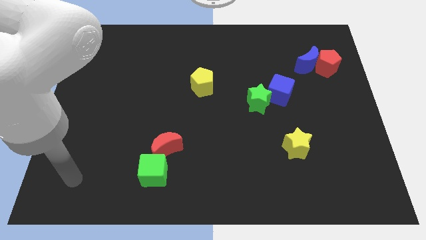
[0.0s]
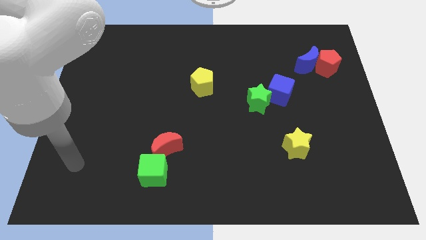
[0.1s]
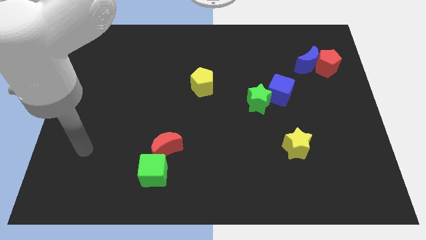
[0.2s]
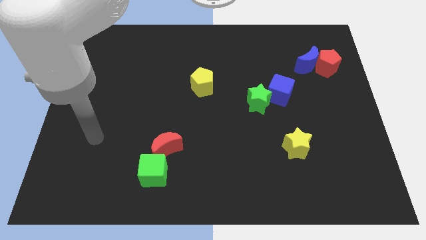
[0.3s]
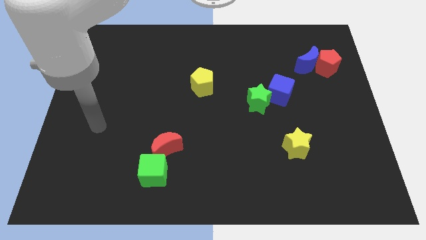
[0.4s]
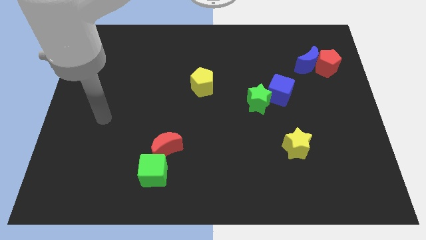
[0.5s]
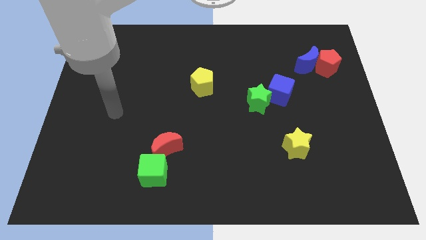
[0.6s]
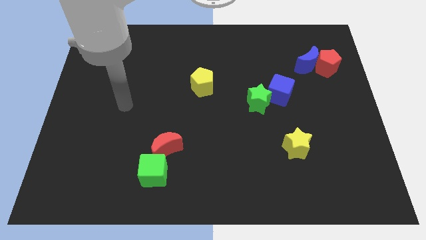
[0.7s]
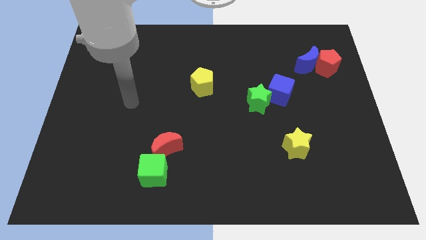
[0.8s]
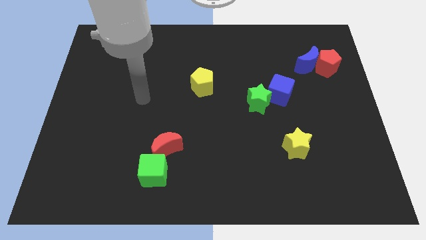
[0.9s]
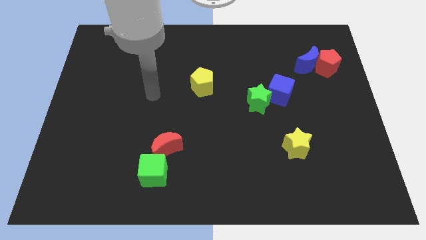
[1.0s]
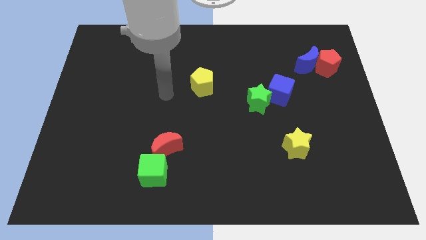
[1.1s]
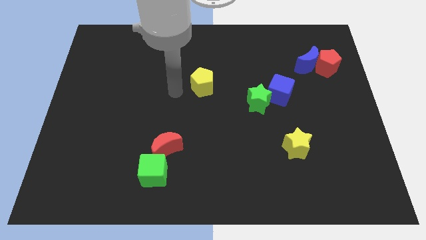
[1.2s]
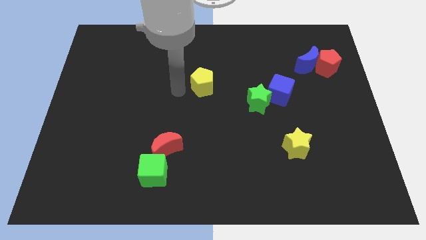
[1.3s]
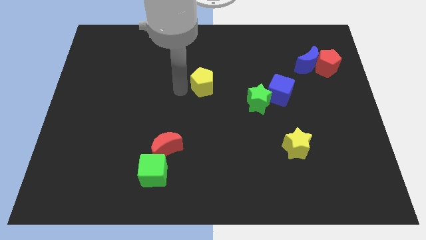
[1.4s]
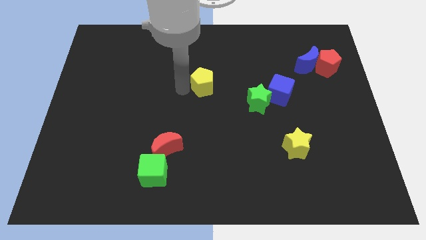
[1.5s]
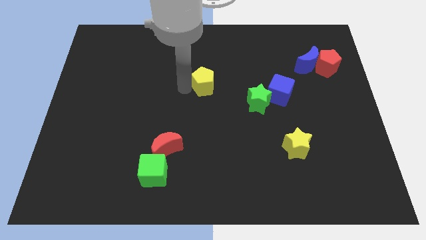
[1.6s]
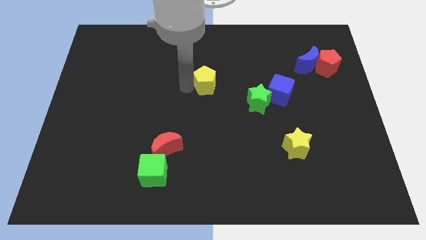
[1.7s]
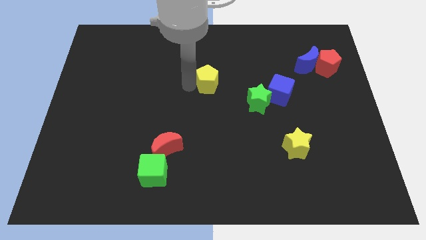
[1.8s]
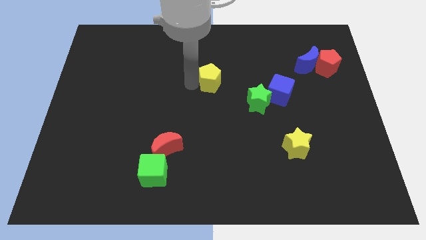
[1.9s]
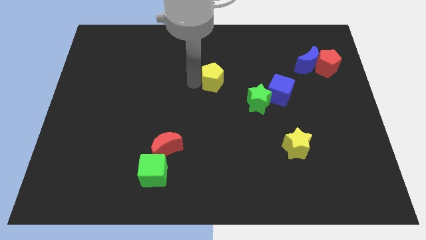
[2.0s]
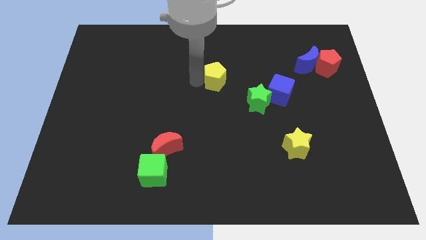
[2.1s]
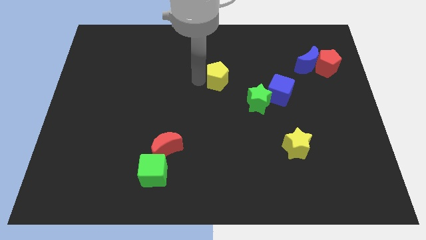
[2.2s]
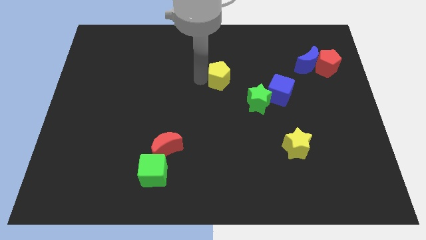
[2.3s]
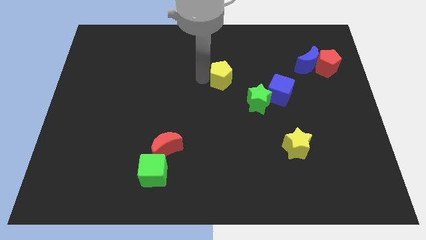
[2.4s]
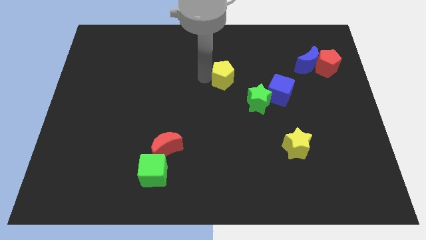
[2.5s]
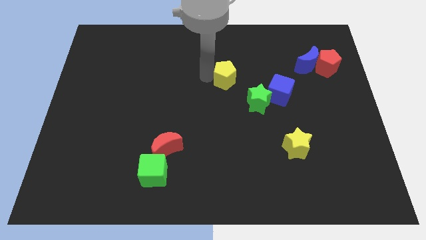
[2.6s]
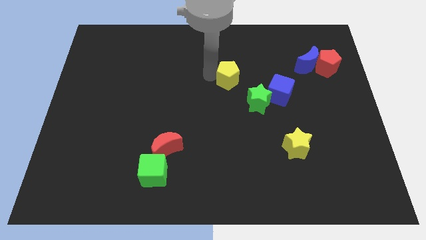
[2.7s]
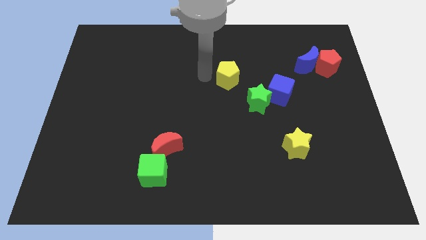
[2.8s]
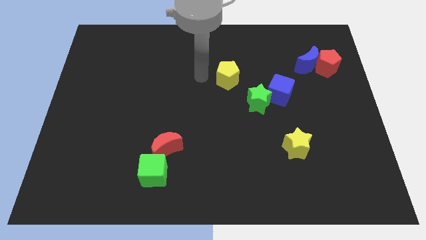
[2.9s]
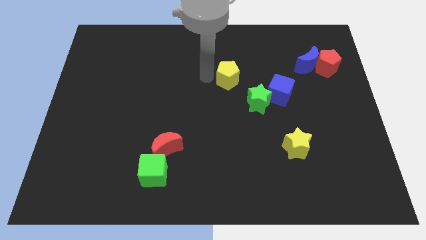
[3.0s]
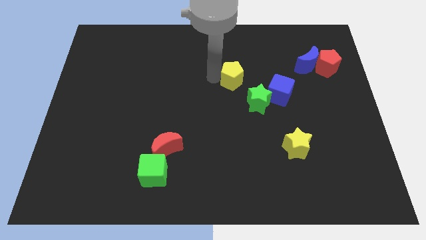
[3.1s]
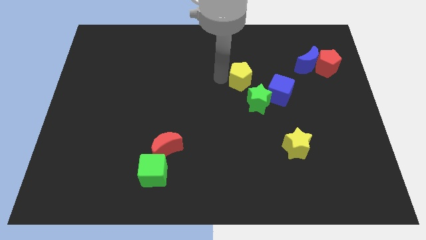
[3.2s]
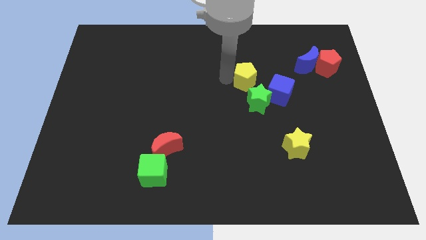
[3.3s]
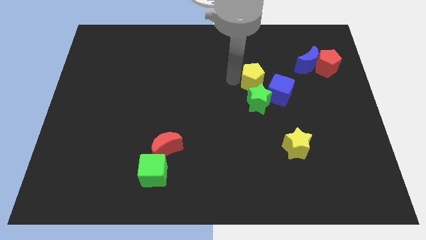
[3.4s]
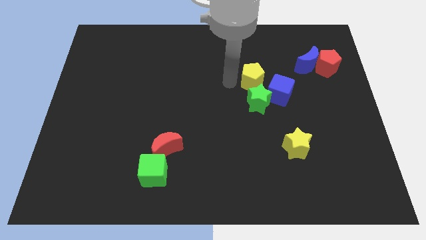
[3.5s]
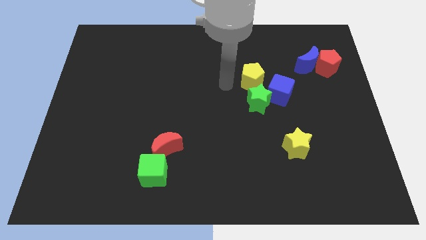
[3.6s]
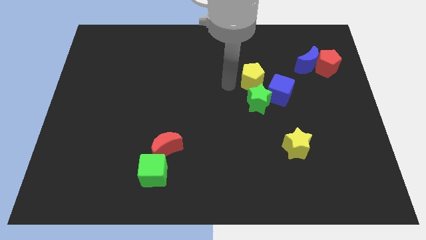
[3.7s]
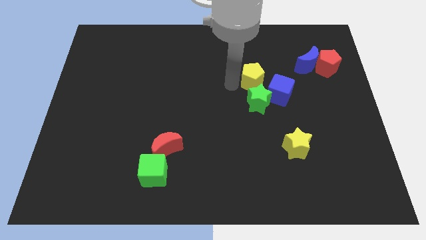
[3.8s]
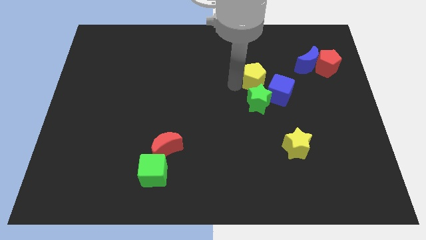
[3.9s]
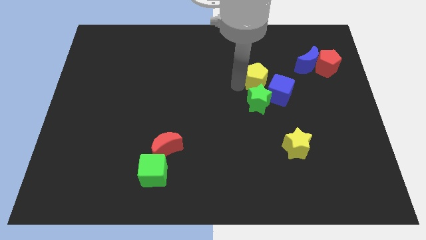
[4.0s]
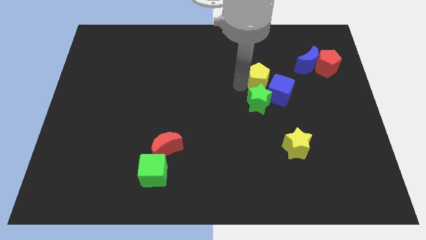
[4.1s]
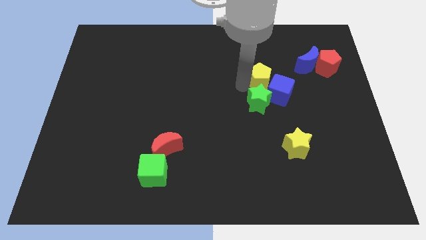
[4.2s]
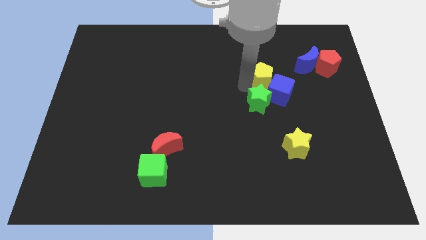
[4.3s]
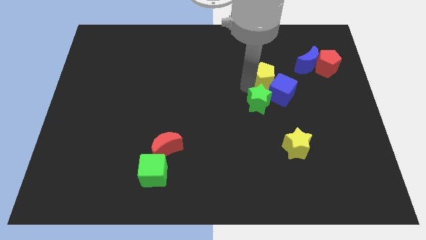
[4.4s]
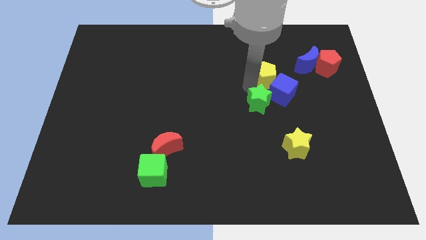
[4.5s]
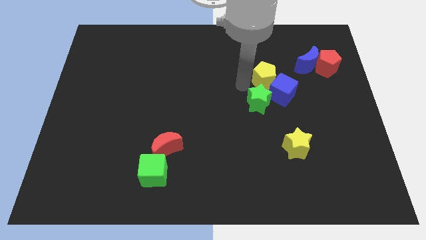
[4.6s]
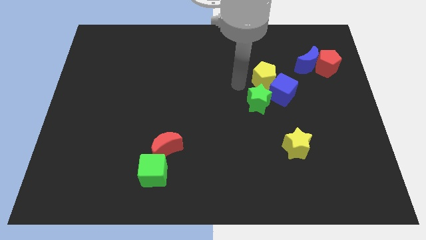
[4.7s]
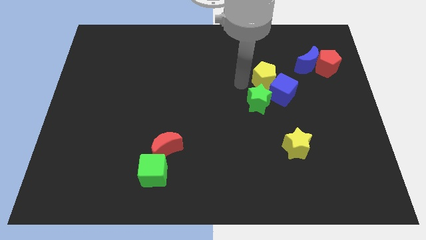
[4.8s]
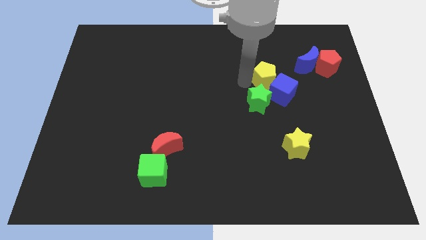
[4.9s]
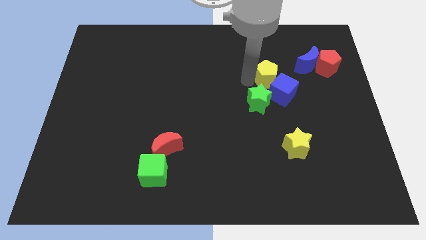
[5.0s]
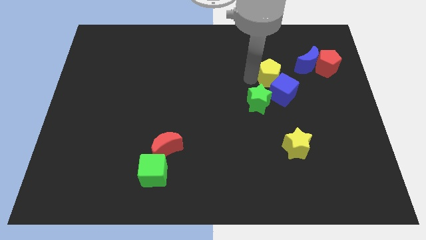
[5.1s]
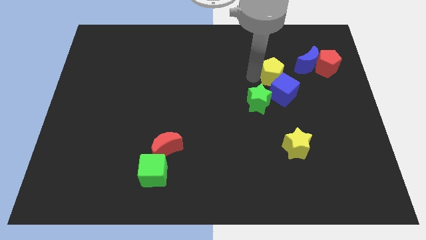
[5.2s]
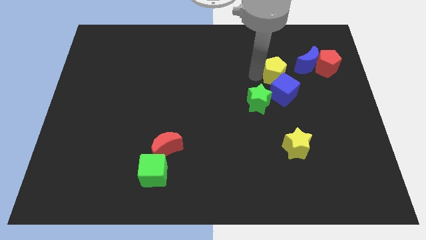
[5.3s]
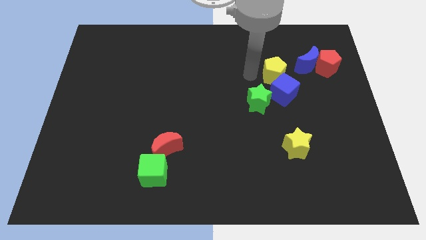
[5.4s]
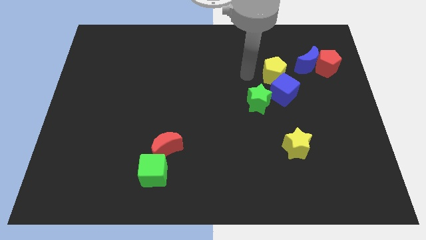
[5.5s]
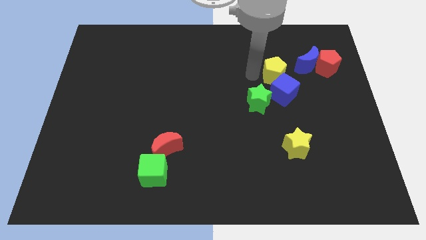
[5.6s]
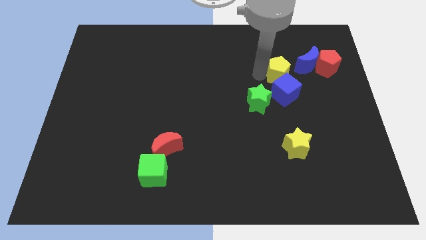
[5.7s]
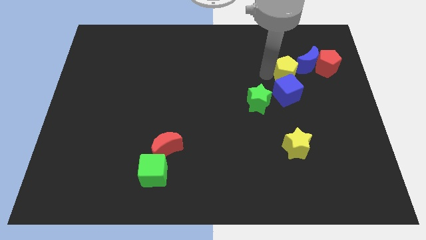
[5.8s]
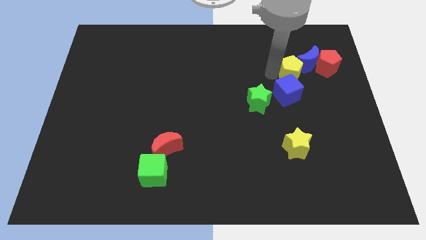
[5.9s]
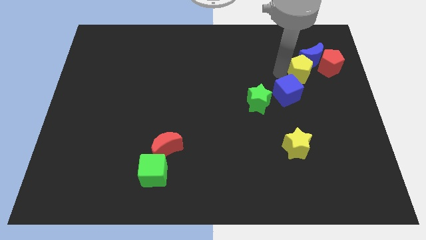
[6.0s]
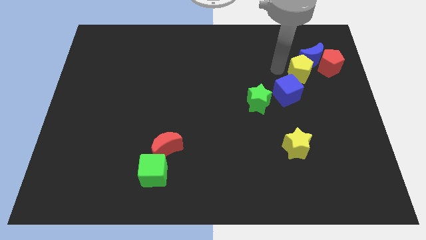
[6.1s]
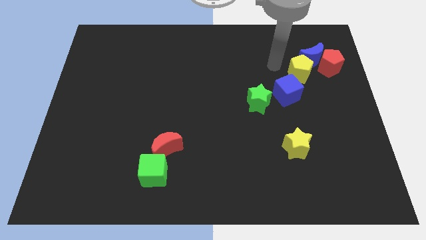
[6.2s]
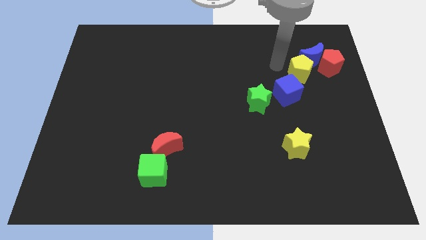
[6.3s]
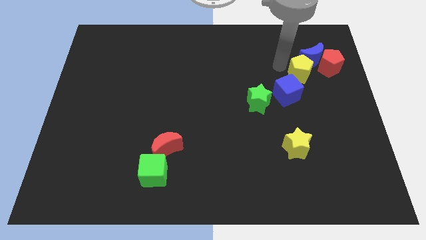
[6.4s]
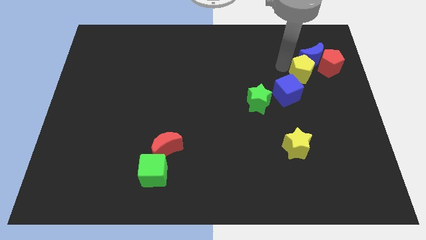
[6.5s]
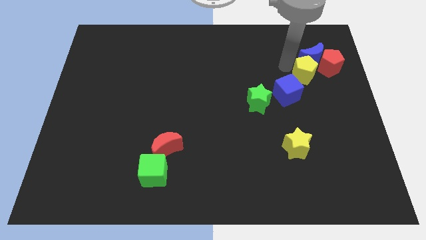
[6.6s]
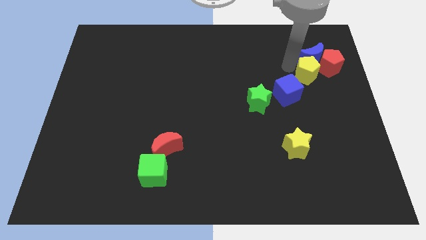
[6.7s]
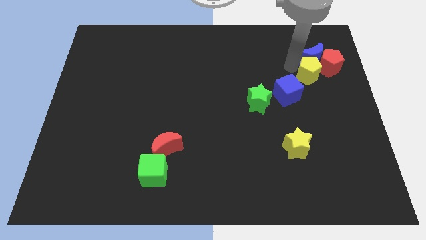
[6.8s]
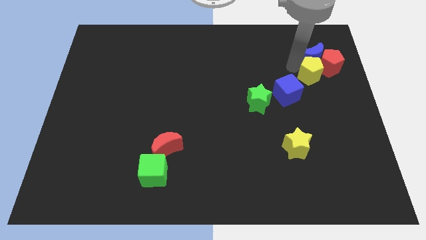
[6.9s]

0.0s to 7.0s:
put the yellow pentagon close to the red pentagon

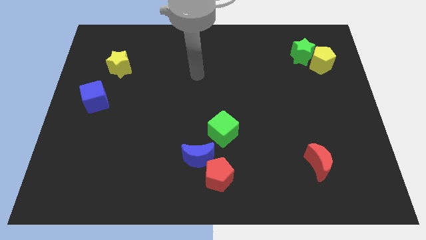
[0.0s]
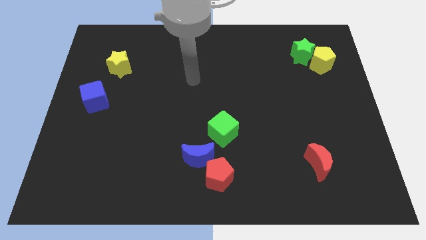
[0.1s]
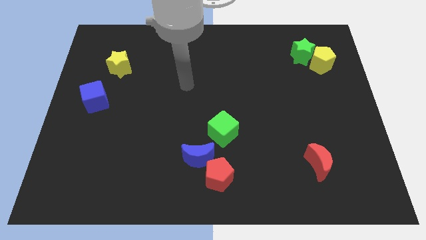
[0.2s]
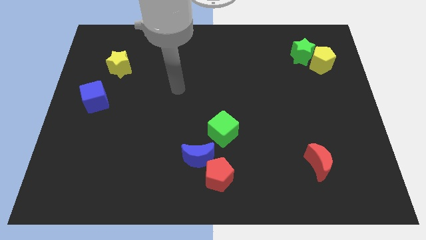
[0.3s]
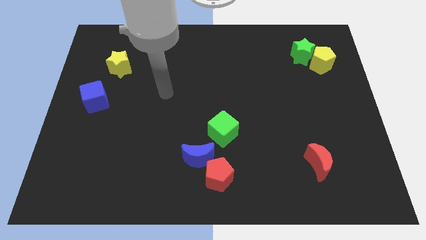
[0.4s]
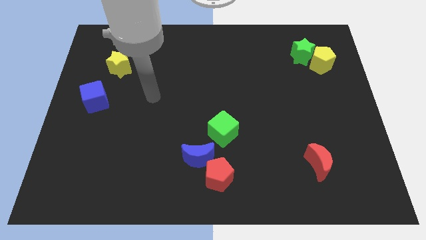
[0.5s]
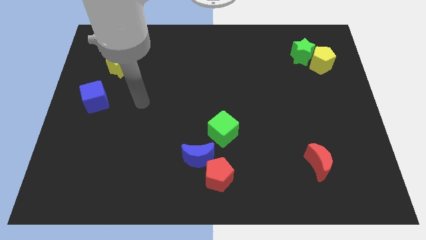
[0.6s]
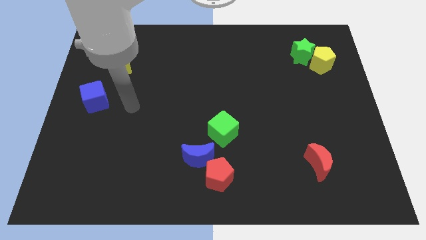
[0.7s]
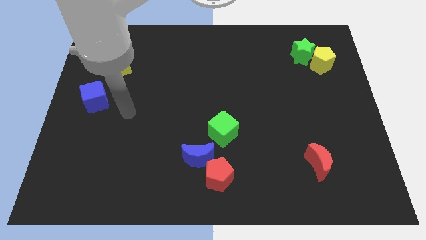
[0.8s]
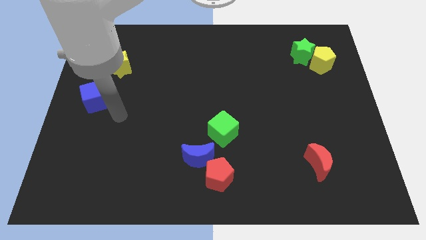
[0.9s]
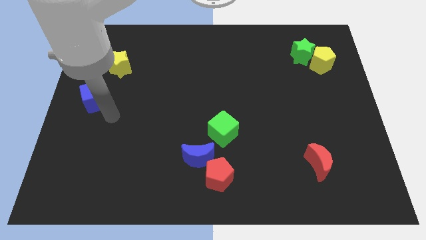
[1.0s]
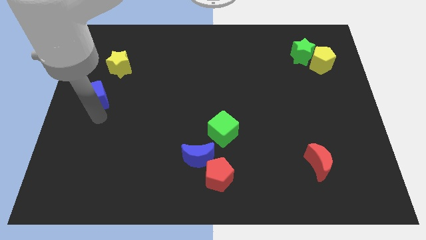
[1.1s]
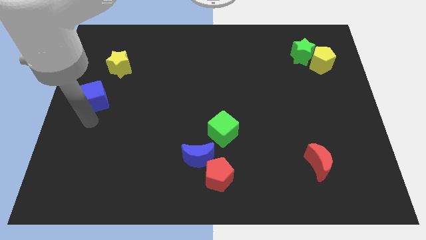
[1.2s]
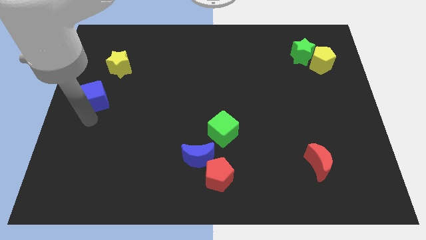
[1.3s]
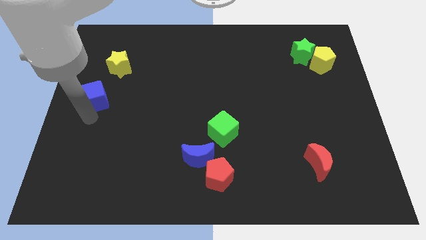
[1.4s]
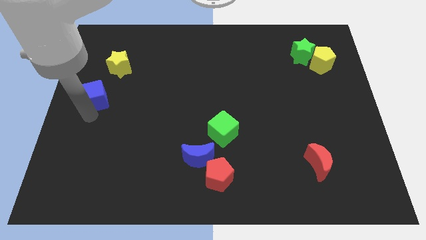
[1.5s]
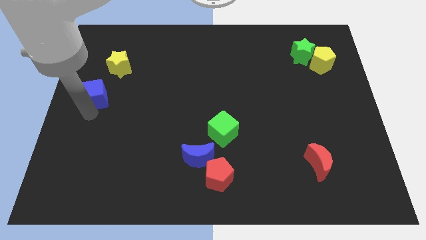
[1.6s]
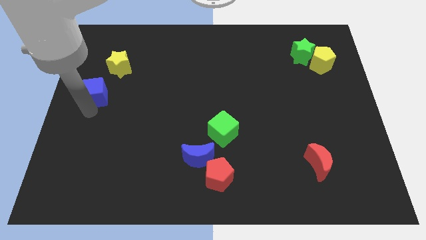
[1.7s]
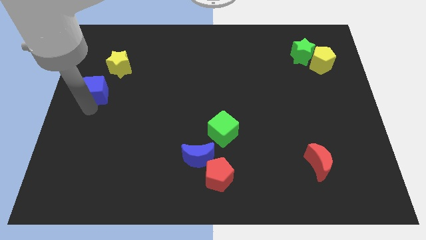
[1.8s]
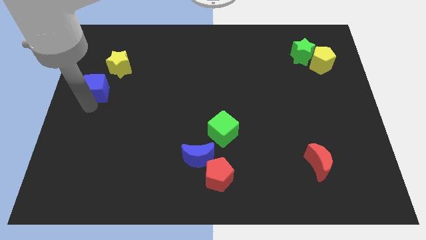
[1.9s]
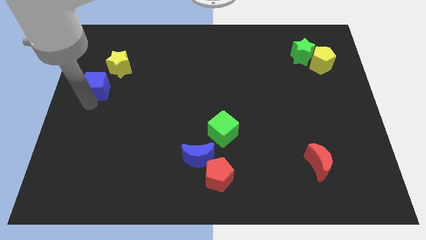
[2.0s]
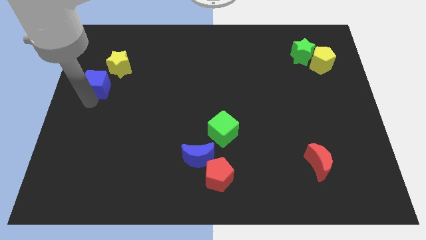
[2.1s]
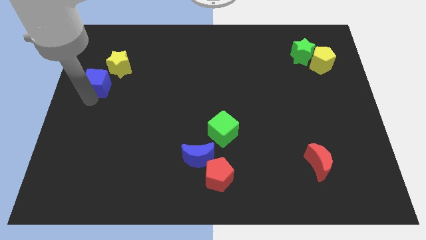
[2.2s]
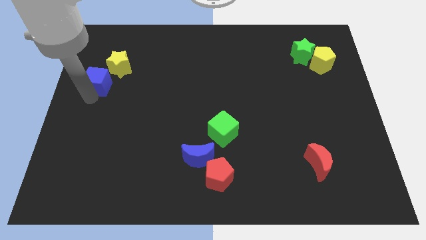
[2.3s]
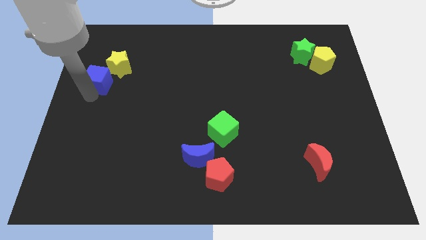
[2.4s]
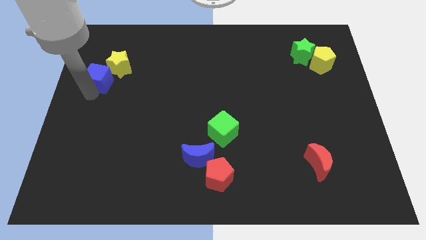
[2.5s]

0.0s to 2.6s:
slide the blue cube next to the yellow star
